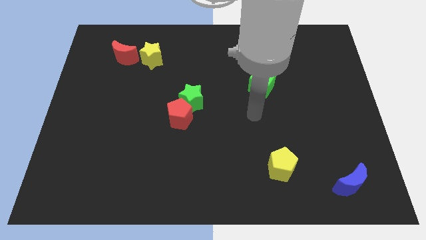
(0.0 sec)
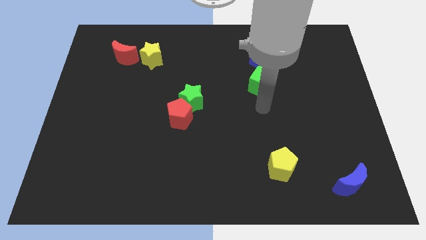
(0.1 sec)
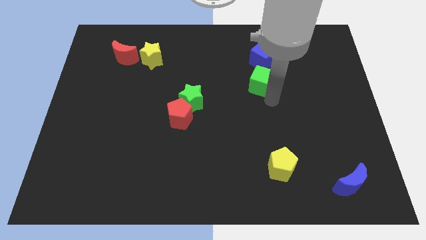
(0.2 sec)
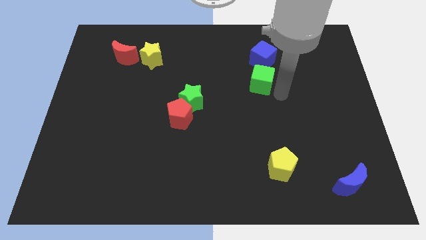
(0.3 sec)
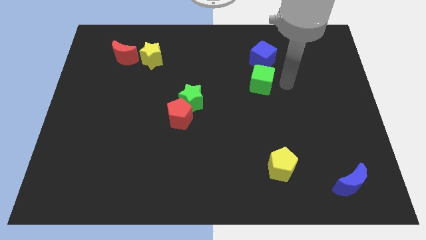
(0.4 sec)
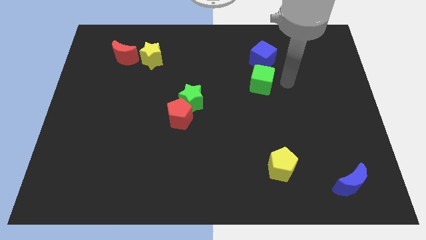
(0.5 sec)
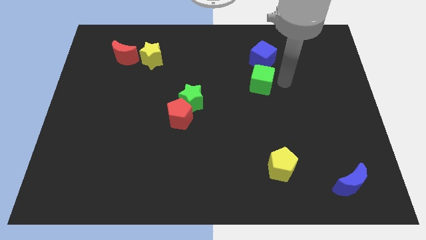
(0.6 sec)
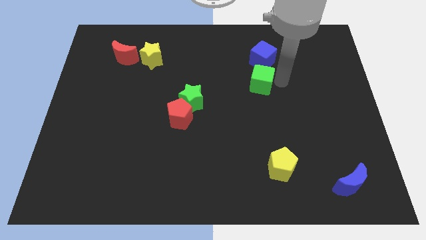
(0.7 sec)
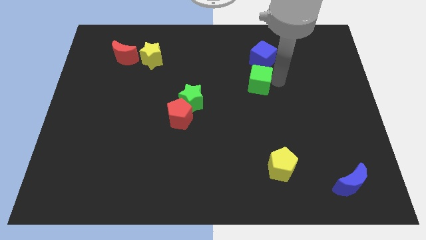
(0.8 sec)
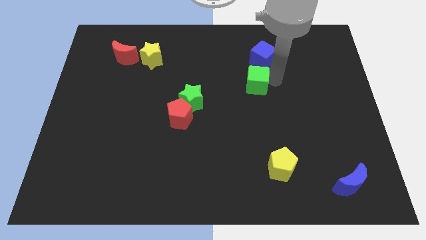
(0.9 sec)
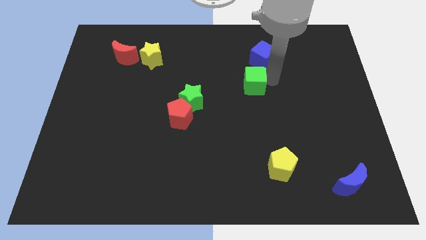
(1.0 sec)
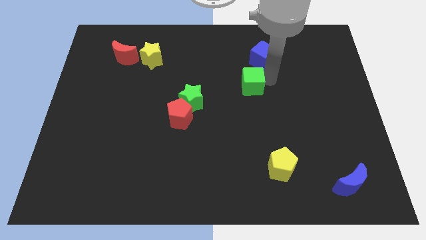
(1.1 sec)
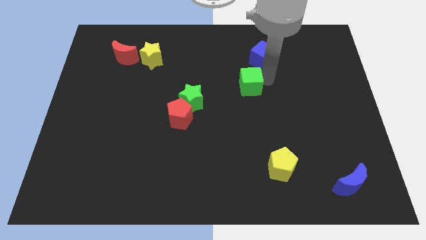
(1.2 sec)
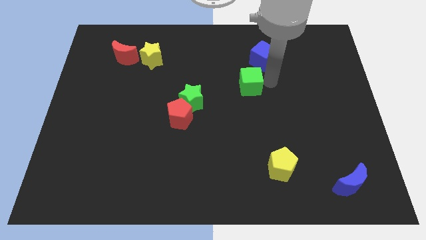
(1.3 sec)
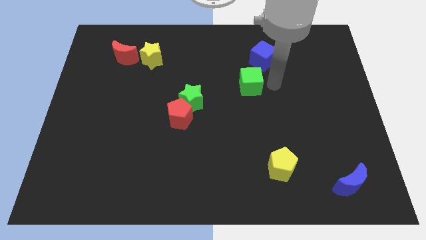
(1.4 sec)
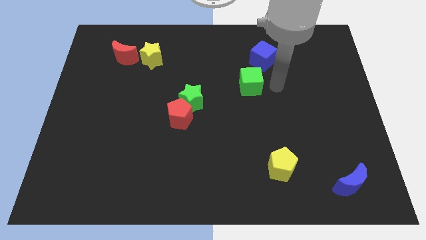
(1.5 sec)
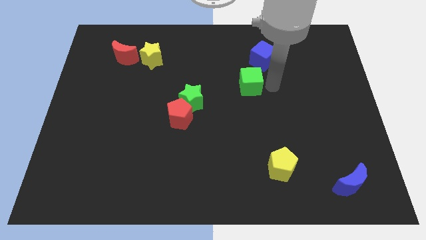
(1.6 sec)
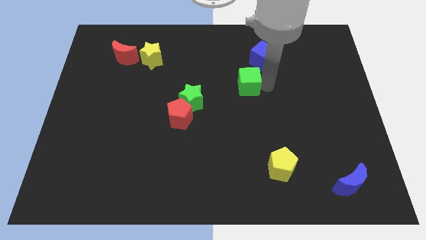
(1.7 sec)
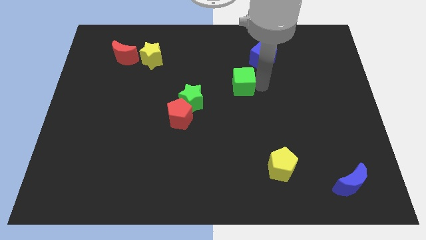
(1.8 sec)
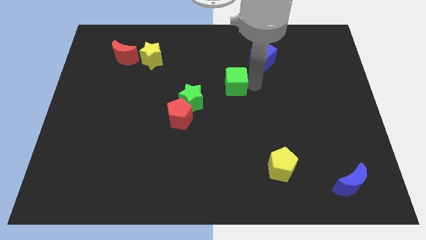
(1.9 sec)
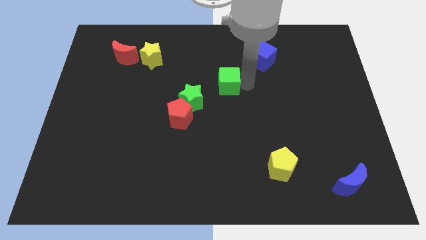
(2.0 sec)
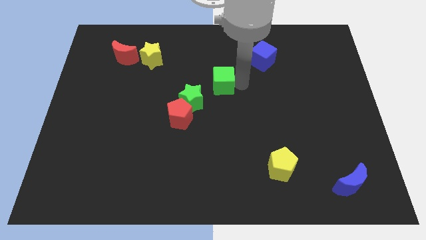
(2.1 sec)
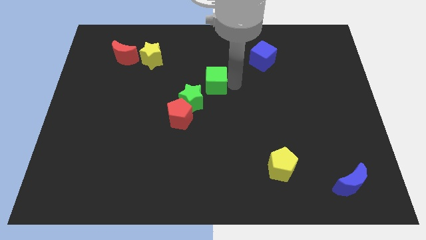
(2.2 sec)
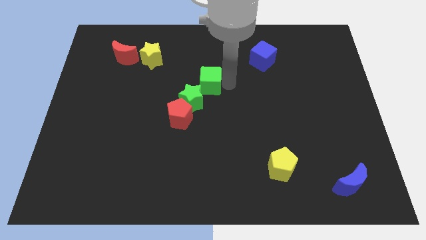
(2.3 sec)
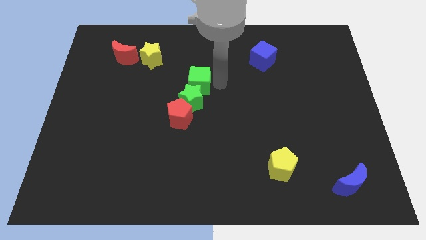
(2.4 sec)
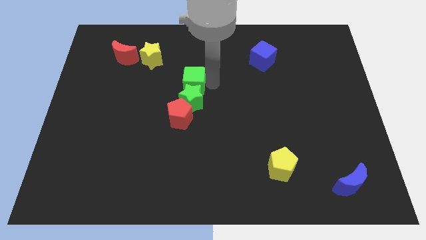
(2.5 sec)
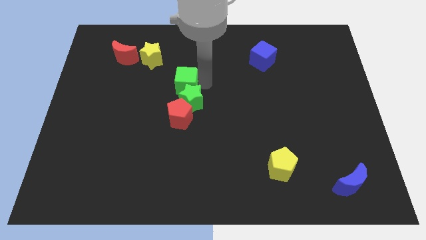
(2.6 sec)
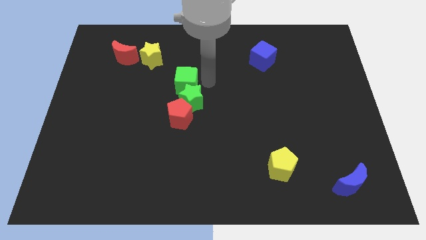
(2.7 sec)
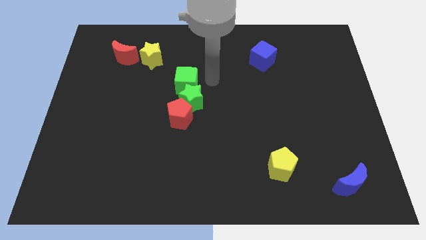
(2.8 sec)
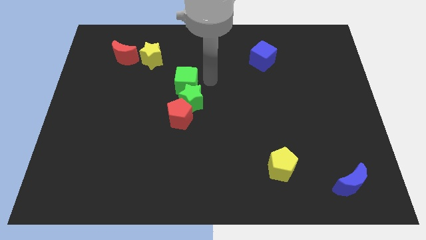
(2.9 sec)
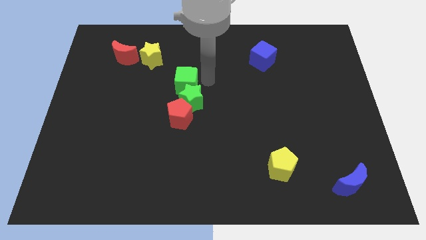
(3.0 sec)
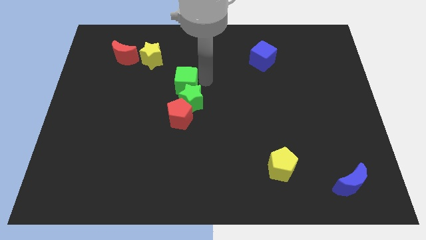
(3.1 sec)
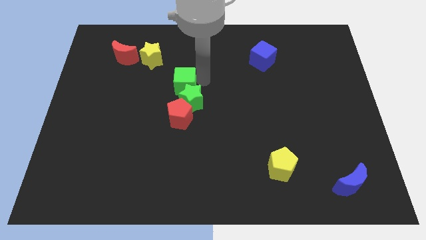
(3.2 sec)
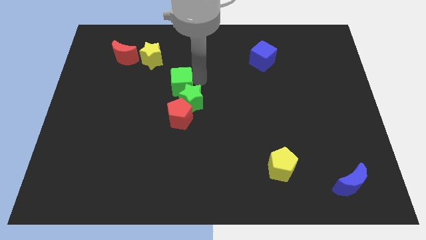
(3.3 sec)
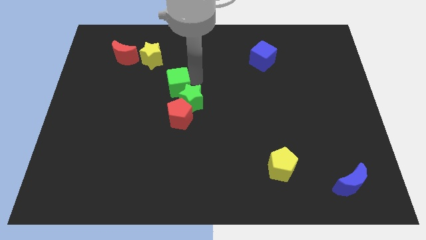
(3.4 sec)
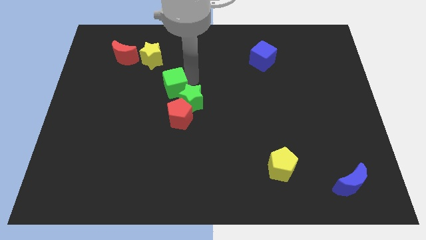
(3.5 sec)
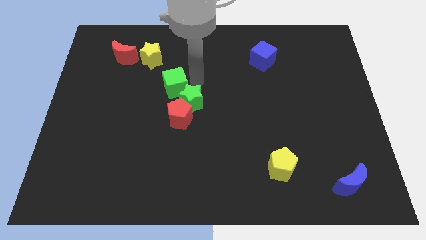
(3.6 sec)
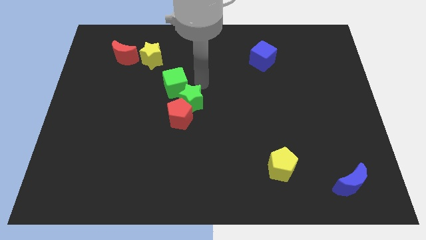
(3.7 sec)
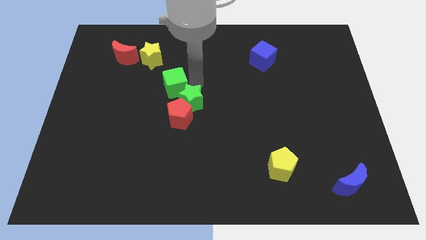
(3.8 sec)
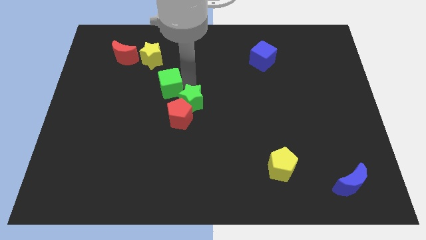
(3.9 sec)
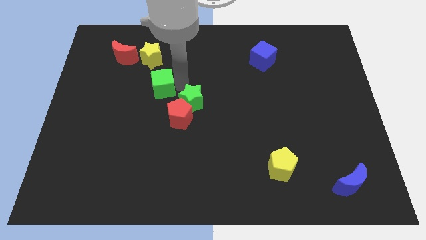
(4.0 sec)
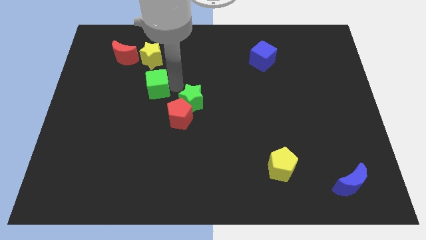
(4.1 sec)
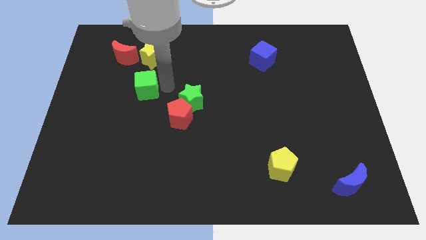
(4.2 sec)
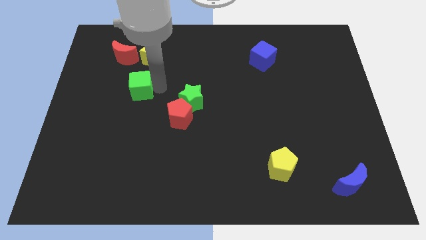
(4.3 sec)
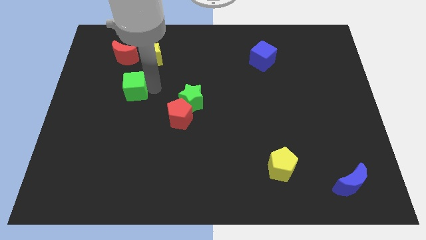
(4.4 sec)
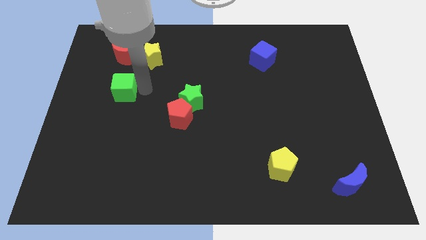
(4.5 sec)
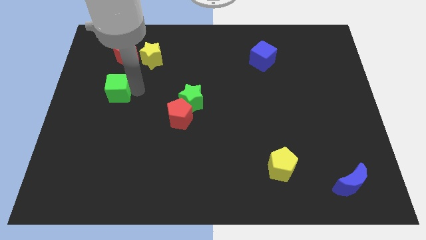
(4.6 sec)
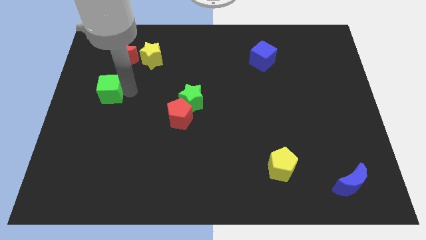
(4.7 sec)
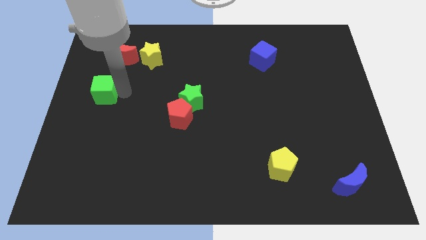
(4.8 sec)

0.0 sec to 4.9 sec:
slide the green cube to the center left

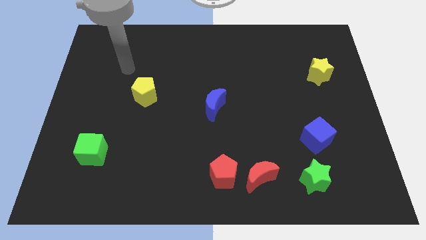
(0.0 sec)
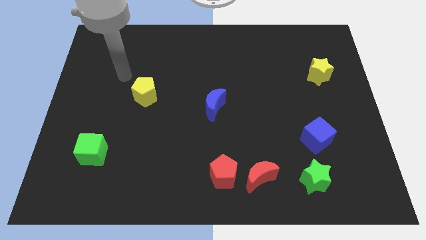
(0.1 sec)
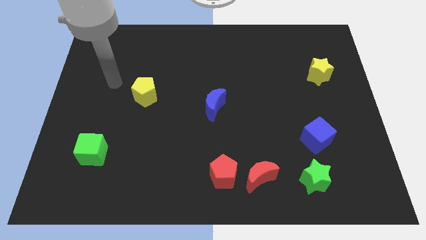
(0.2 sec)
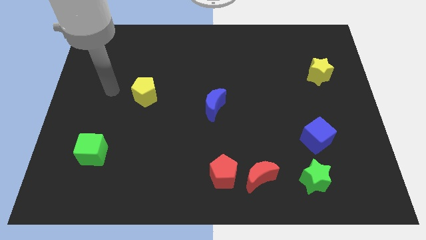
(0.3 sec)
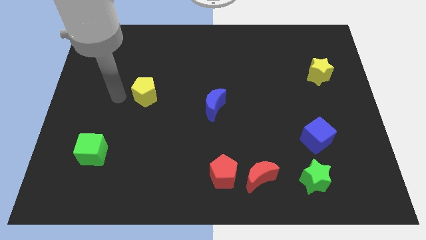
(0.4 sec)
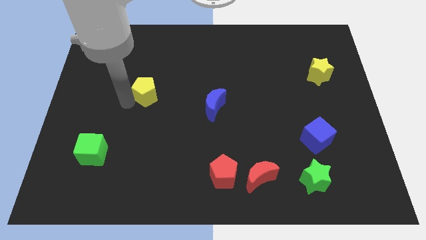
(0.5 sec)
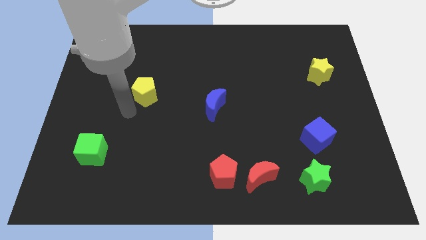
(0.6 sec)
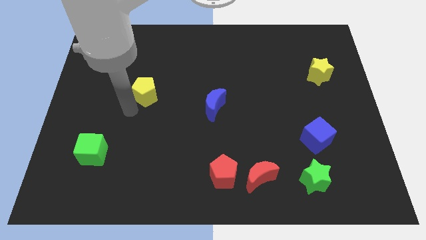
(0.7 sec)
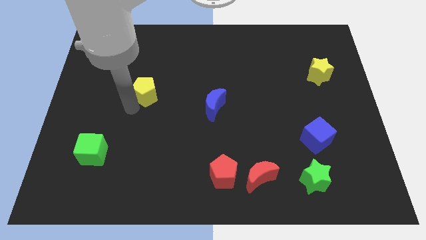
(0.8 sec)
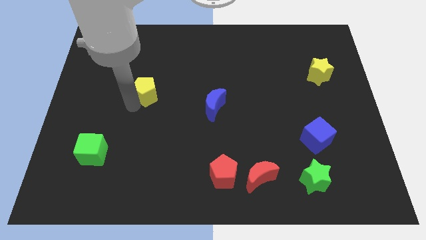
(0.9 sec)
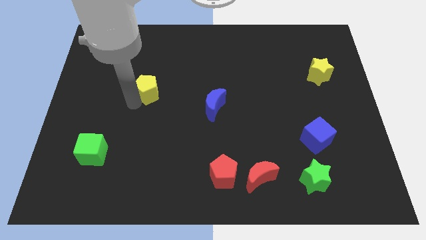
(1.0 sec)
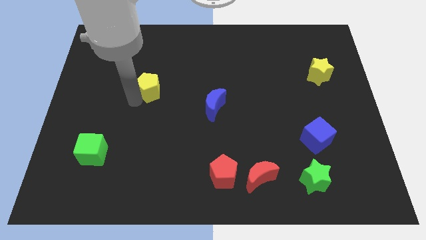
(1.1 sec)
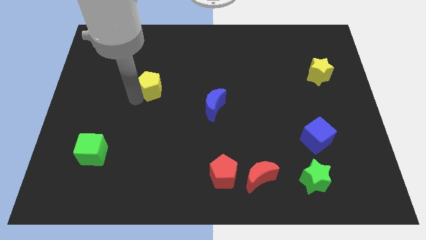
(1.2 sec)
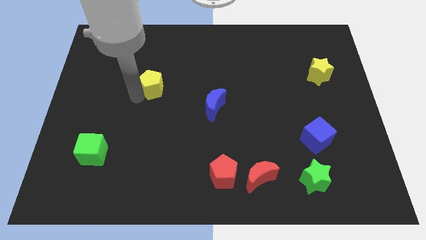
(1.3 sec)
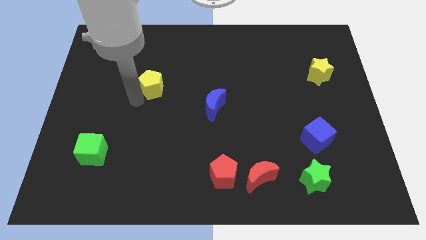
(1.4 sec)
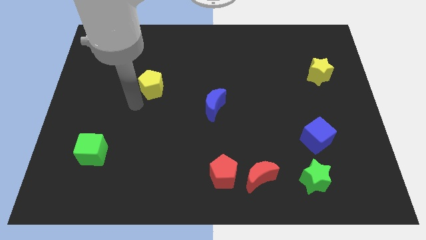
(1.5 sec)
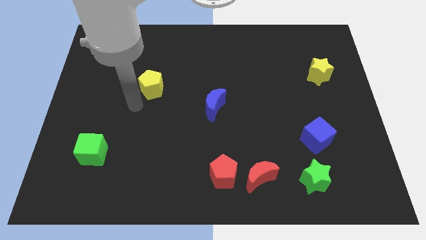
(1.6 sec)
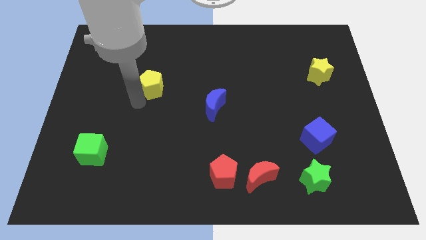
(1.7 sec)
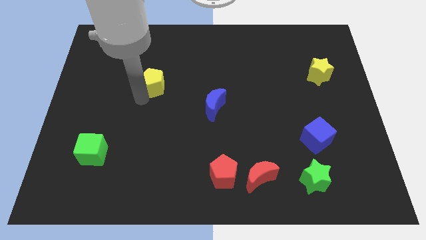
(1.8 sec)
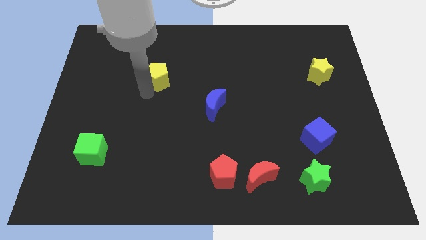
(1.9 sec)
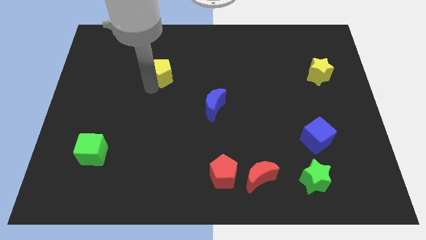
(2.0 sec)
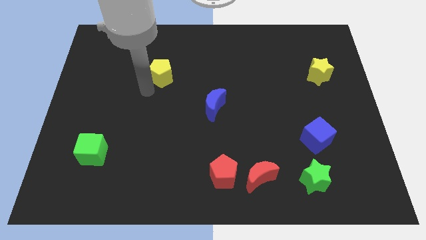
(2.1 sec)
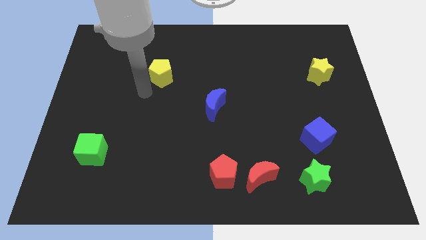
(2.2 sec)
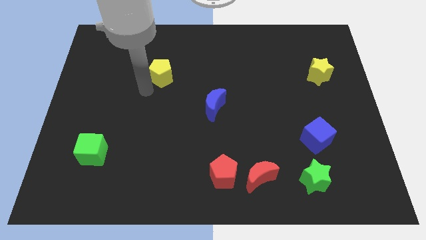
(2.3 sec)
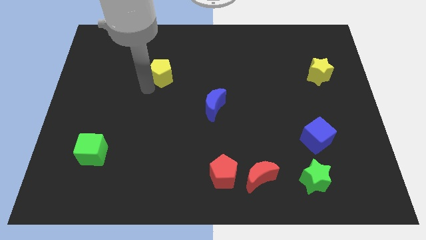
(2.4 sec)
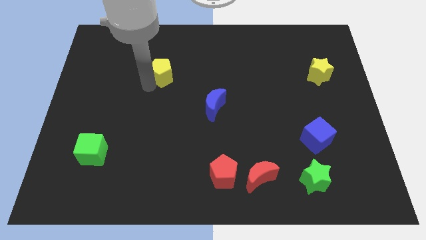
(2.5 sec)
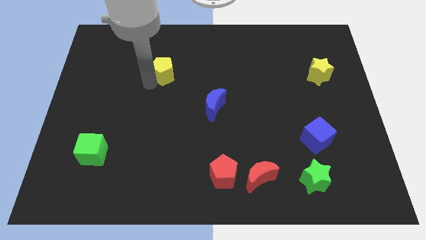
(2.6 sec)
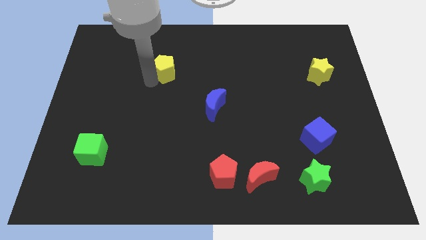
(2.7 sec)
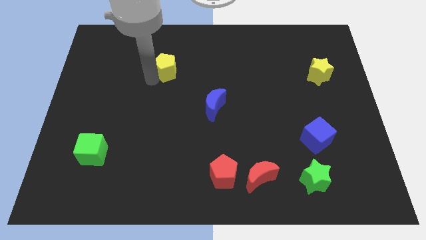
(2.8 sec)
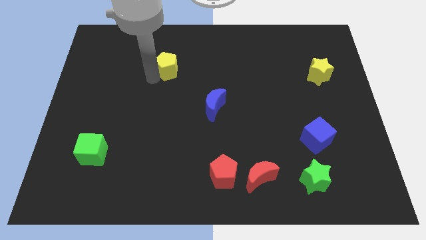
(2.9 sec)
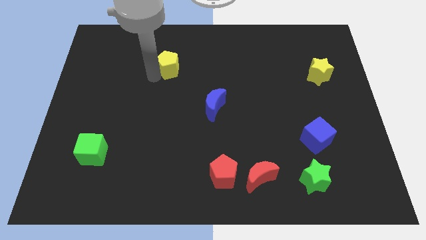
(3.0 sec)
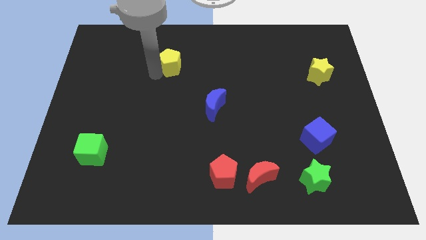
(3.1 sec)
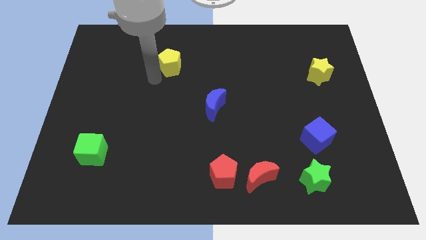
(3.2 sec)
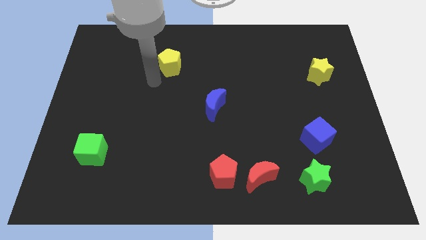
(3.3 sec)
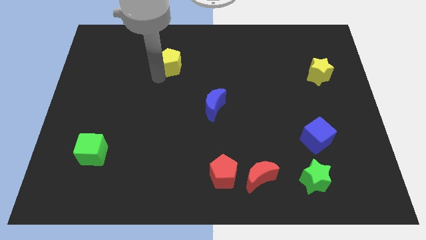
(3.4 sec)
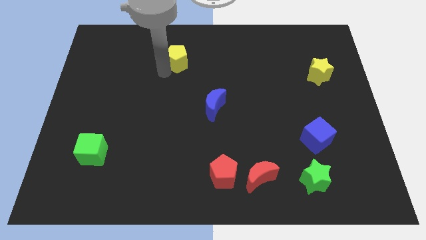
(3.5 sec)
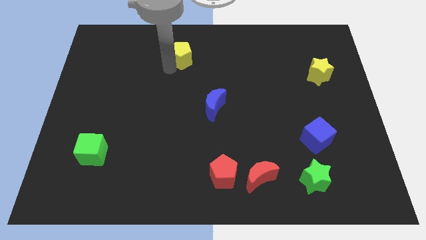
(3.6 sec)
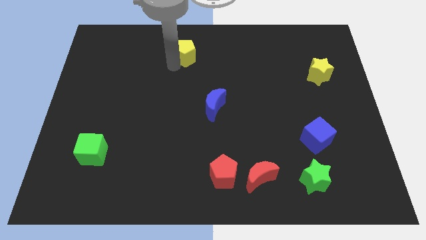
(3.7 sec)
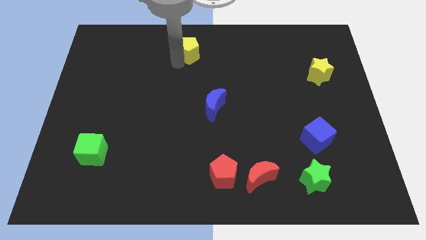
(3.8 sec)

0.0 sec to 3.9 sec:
push the yellow pentagon to the top
